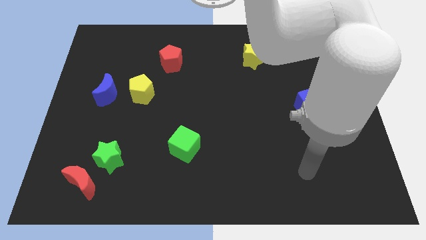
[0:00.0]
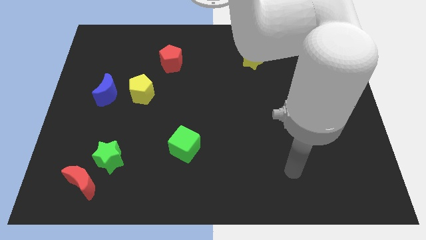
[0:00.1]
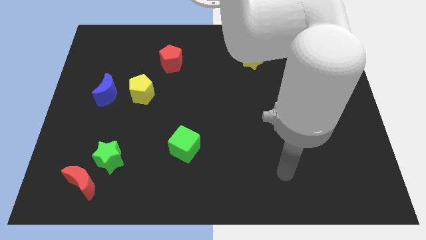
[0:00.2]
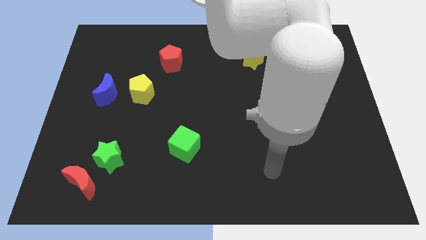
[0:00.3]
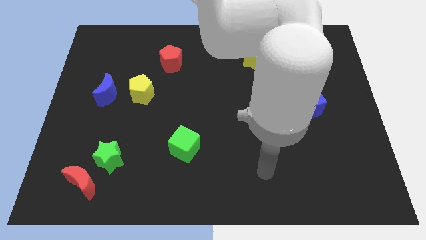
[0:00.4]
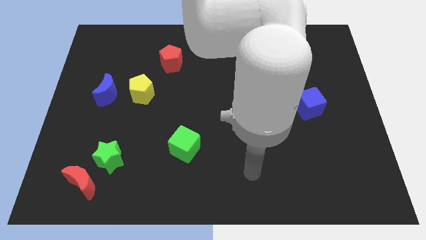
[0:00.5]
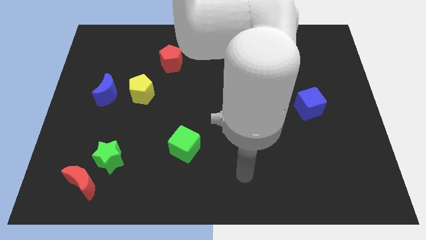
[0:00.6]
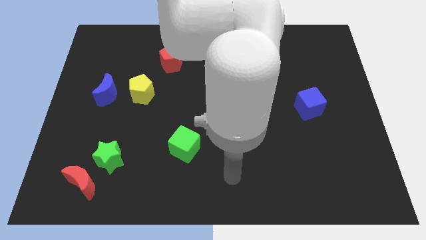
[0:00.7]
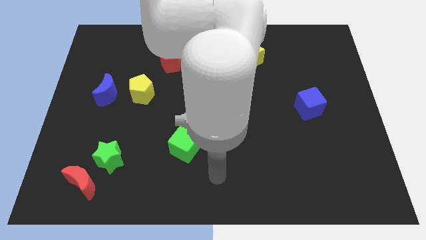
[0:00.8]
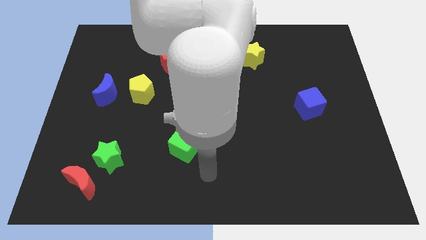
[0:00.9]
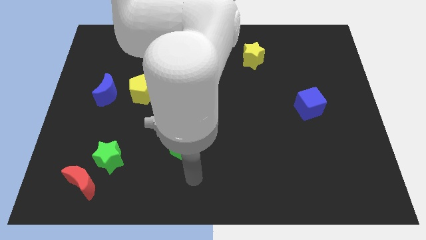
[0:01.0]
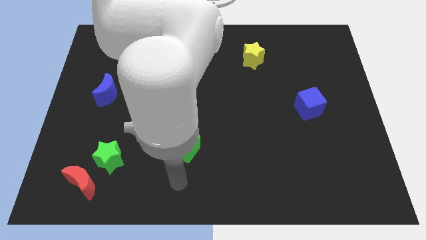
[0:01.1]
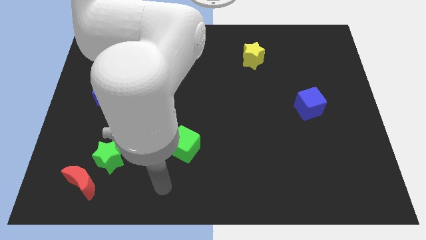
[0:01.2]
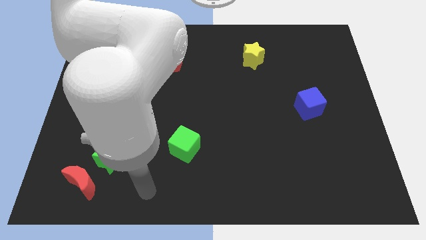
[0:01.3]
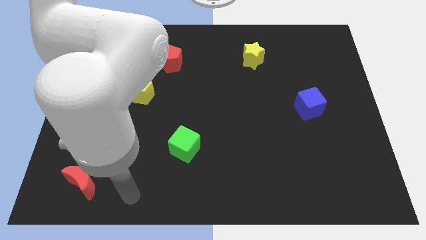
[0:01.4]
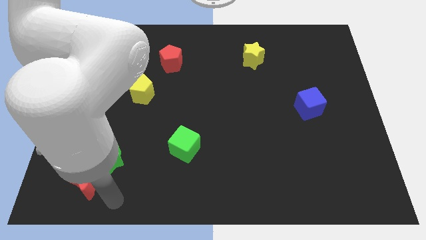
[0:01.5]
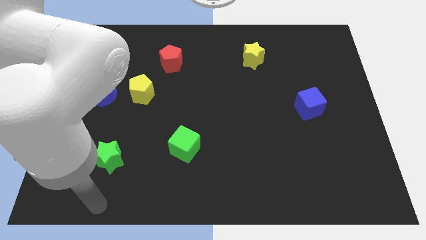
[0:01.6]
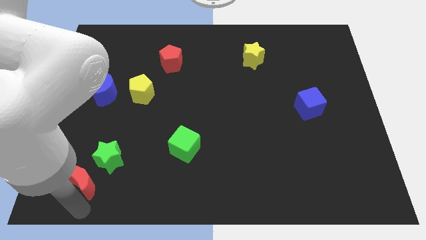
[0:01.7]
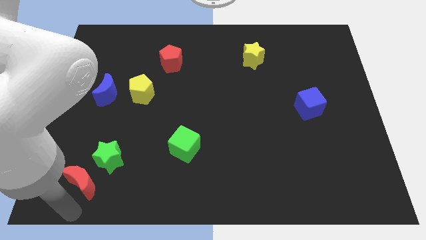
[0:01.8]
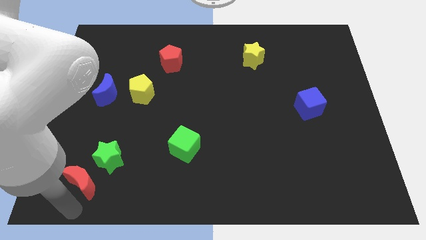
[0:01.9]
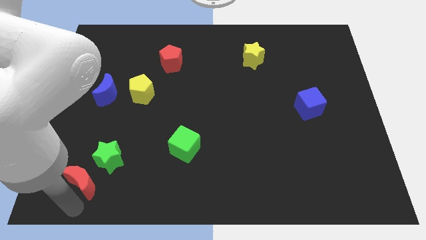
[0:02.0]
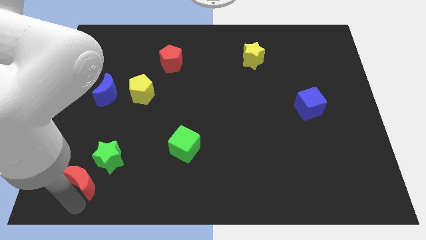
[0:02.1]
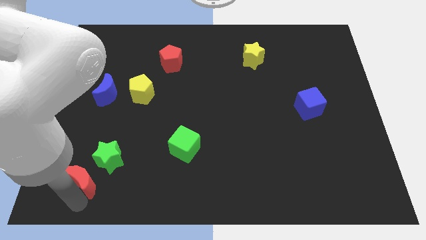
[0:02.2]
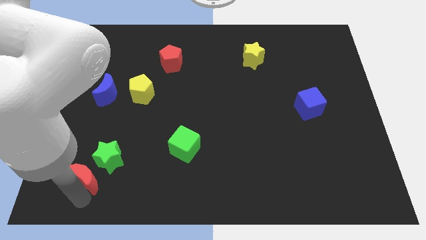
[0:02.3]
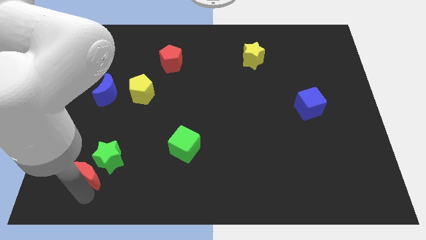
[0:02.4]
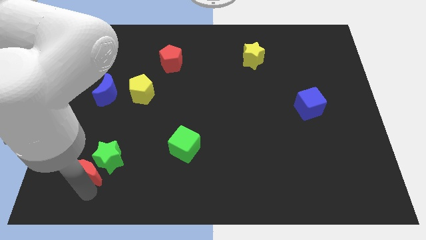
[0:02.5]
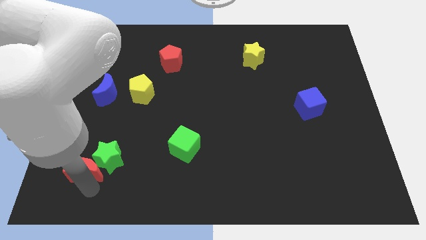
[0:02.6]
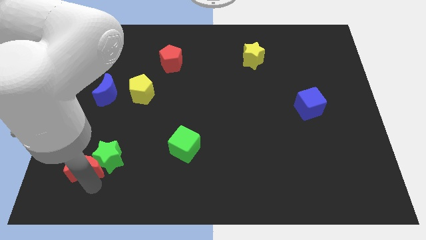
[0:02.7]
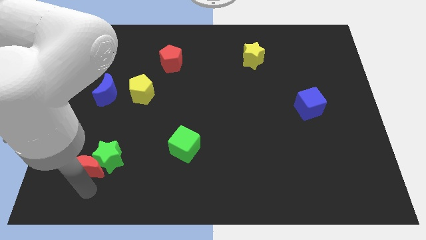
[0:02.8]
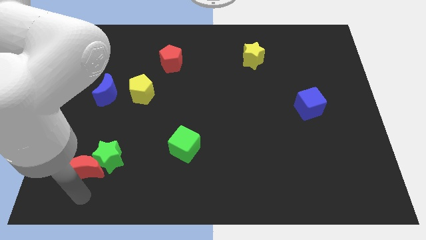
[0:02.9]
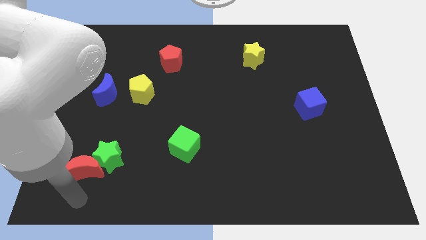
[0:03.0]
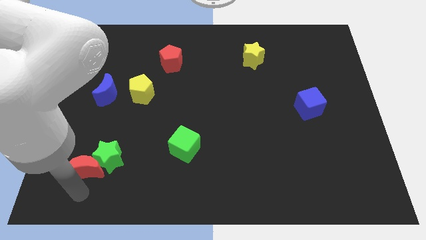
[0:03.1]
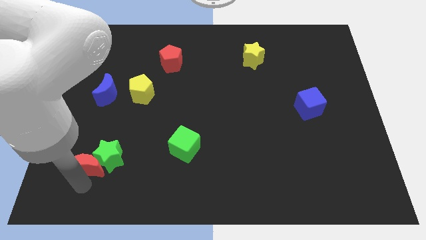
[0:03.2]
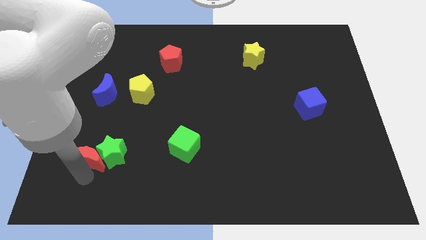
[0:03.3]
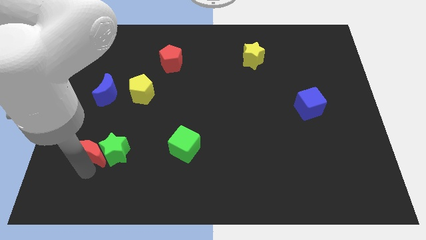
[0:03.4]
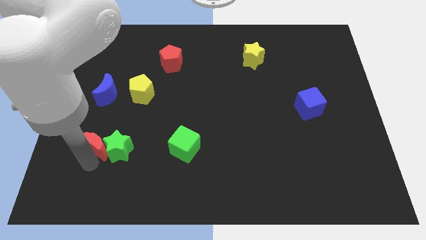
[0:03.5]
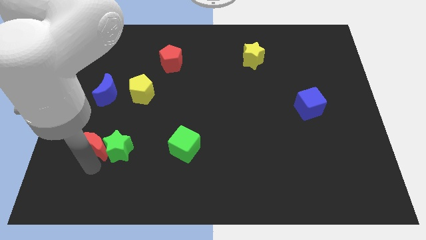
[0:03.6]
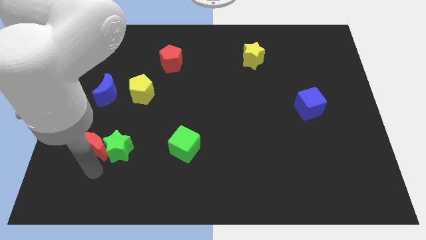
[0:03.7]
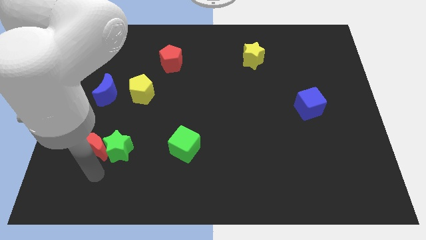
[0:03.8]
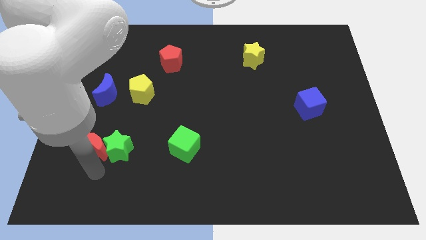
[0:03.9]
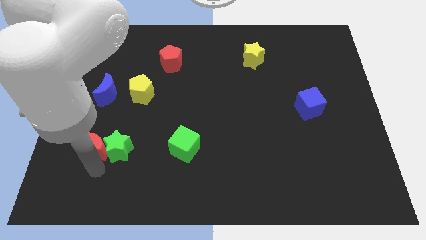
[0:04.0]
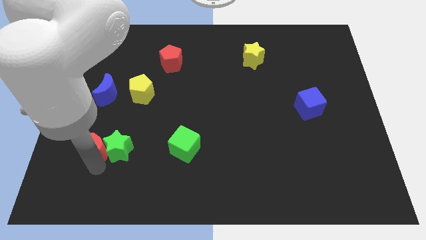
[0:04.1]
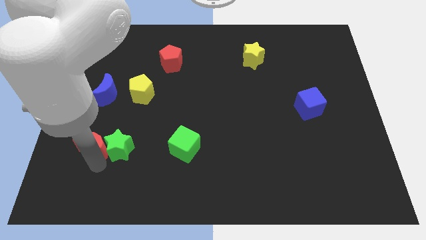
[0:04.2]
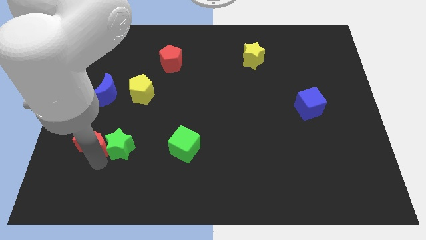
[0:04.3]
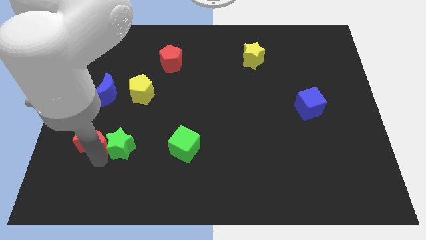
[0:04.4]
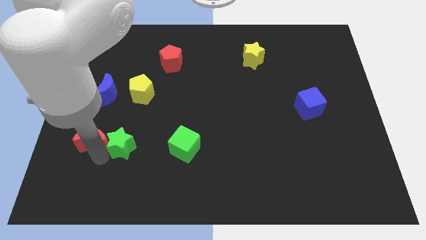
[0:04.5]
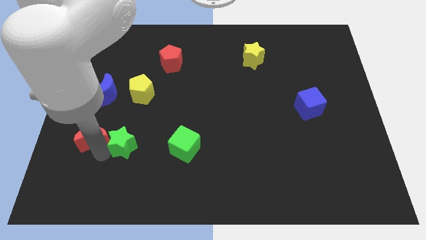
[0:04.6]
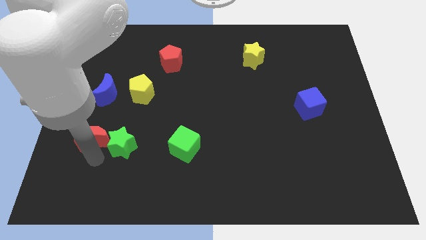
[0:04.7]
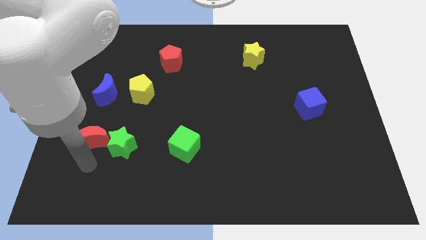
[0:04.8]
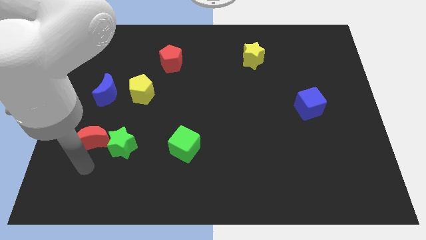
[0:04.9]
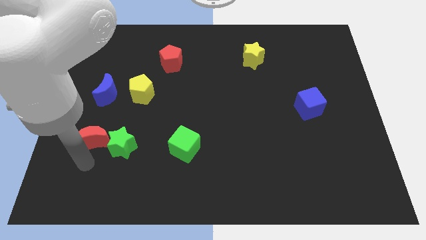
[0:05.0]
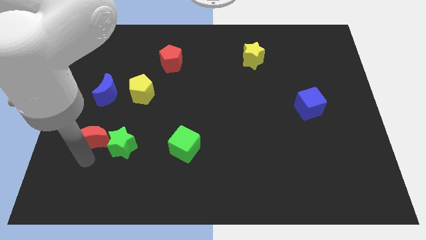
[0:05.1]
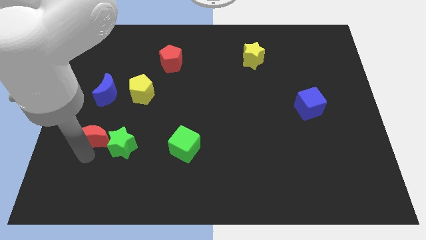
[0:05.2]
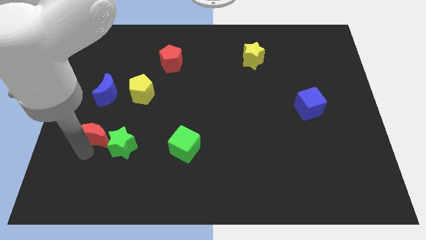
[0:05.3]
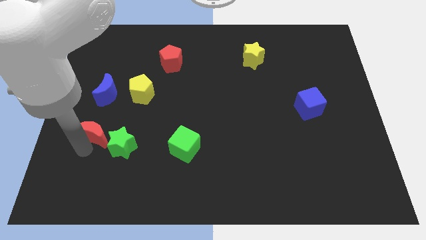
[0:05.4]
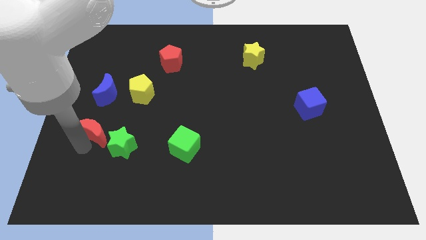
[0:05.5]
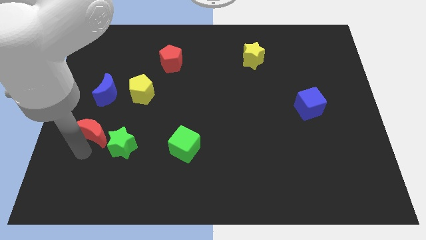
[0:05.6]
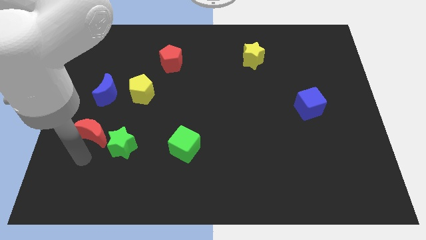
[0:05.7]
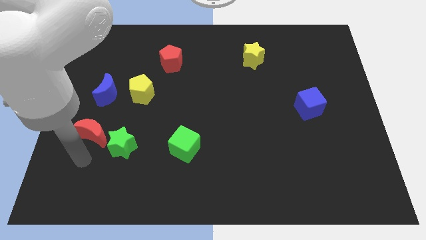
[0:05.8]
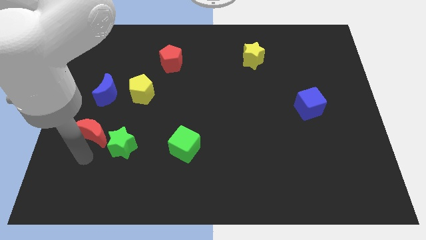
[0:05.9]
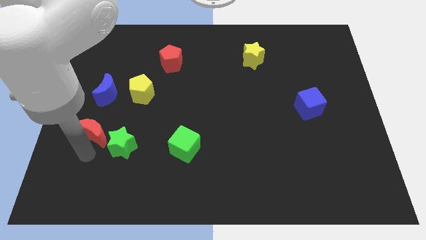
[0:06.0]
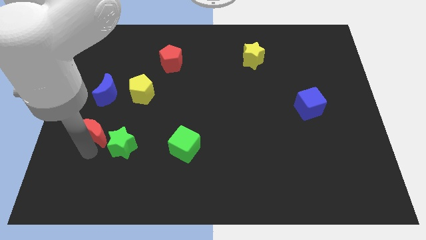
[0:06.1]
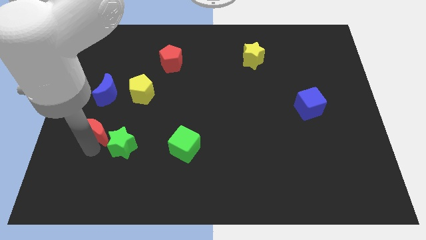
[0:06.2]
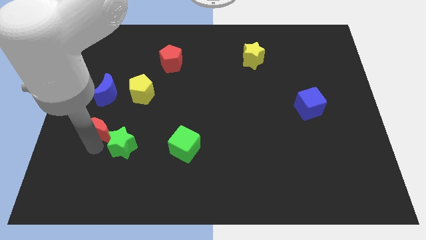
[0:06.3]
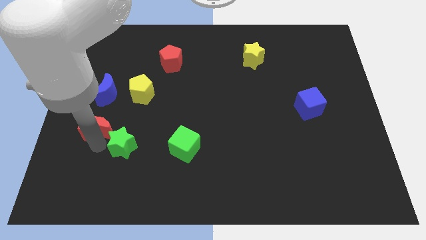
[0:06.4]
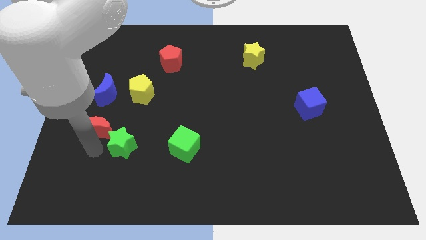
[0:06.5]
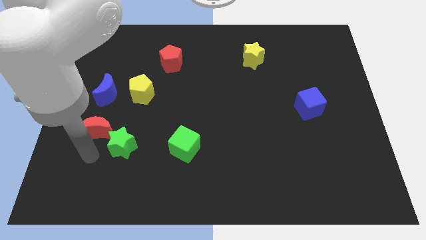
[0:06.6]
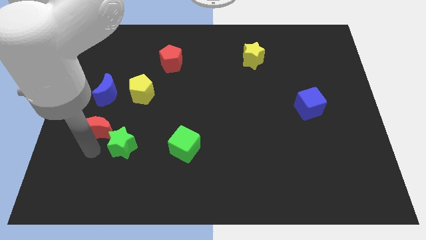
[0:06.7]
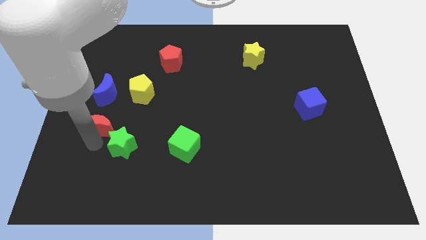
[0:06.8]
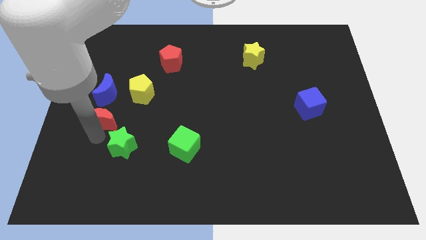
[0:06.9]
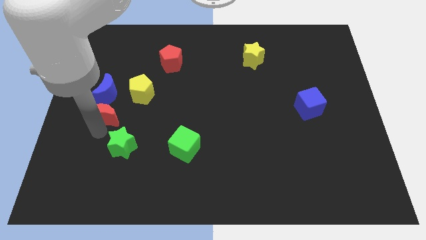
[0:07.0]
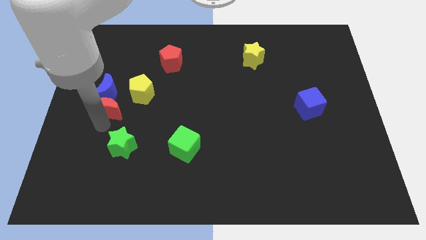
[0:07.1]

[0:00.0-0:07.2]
slide the red moon towards the blue moon
